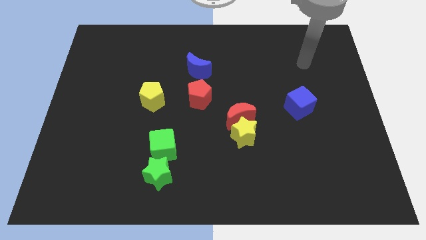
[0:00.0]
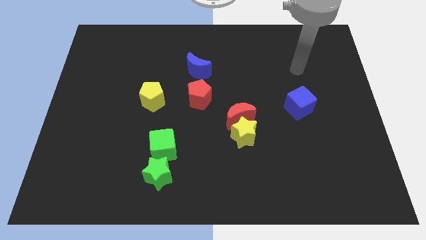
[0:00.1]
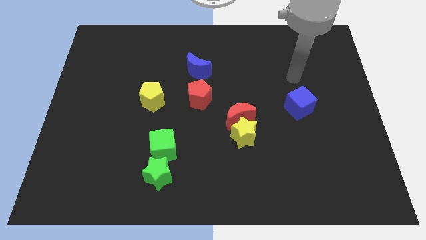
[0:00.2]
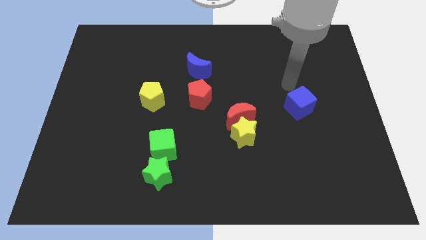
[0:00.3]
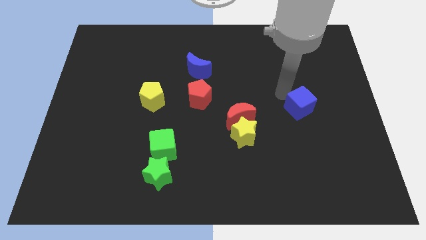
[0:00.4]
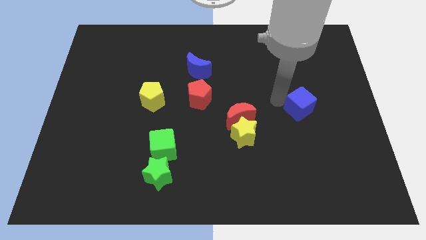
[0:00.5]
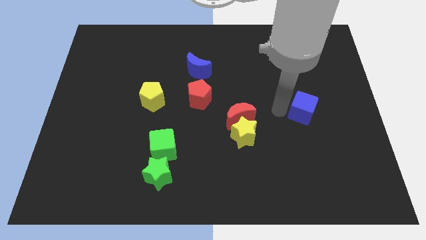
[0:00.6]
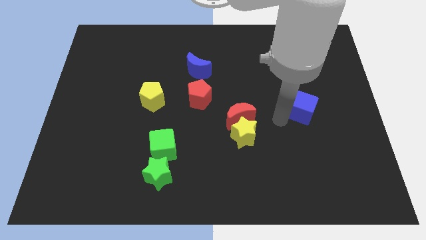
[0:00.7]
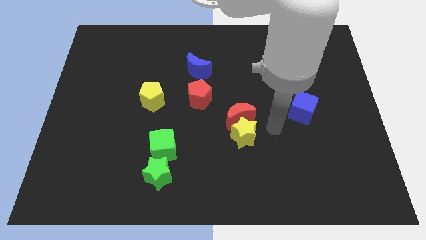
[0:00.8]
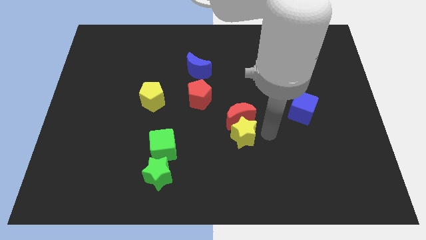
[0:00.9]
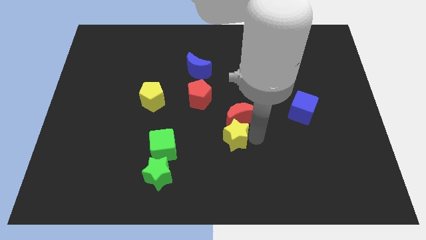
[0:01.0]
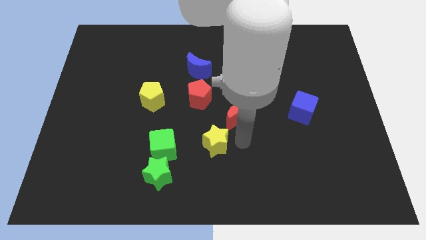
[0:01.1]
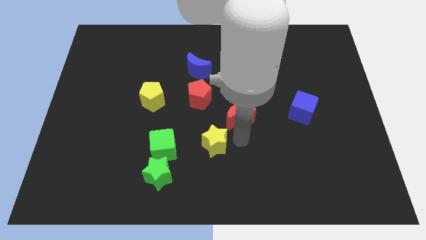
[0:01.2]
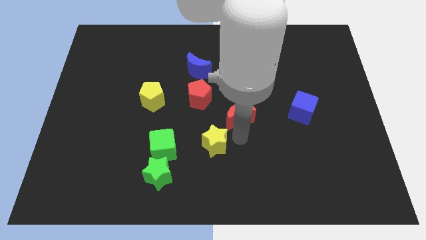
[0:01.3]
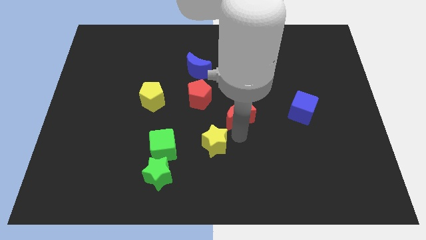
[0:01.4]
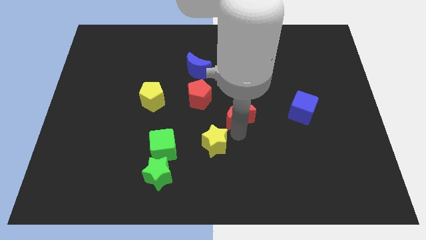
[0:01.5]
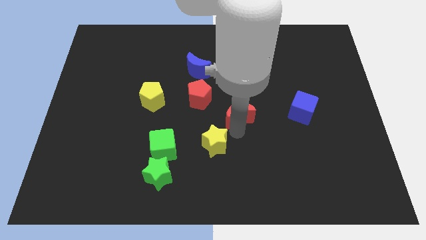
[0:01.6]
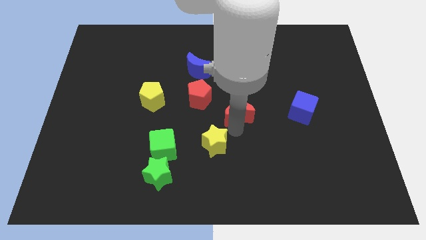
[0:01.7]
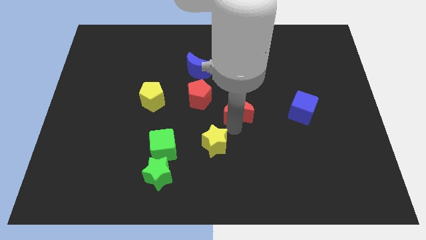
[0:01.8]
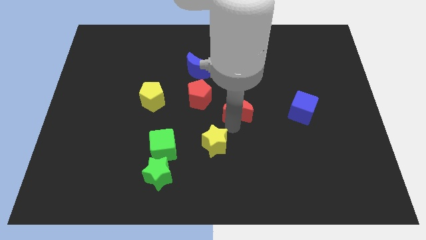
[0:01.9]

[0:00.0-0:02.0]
move the red moon away from the yellow star

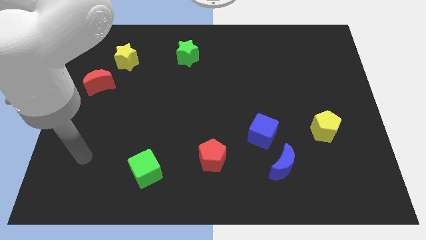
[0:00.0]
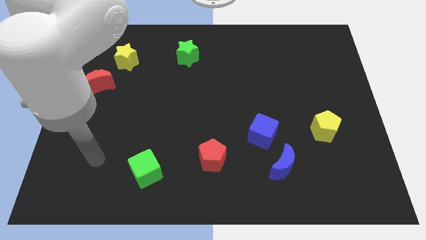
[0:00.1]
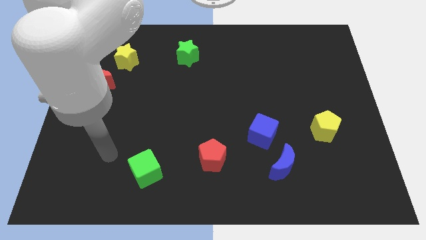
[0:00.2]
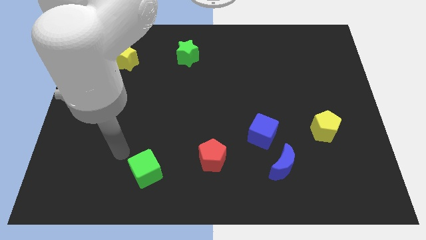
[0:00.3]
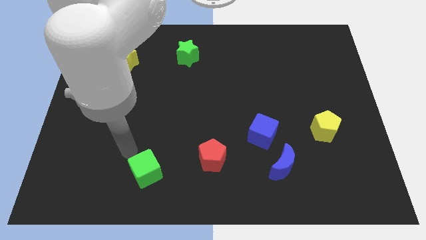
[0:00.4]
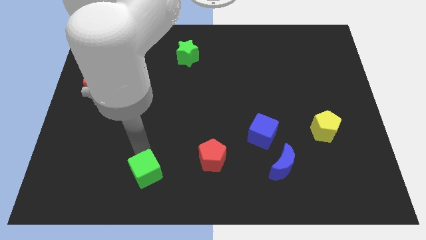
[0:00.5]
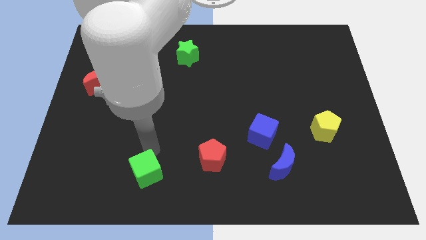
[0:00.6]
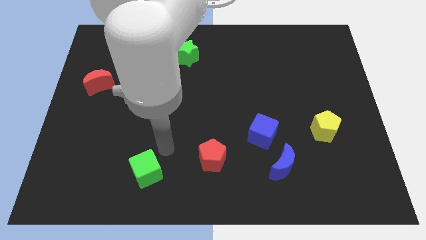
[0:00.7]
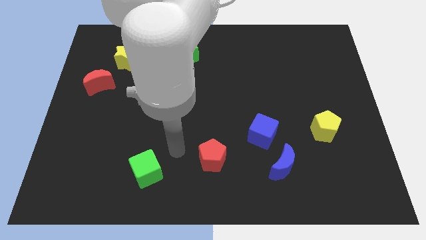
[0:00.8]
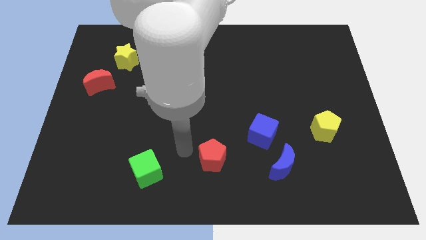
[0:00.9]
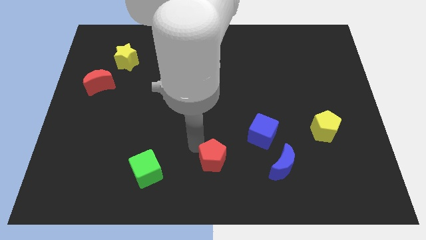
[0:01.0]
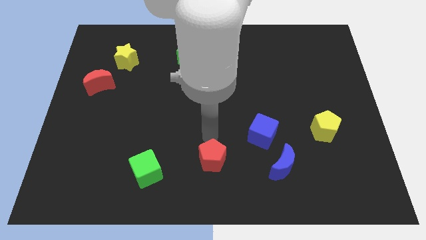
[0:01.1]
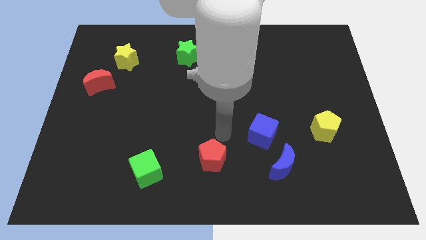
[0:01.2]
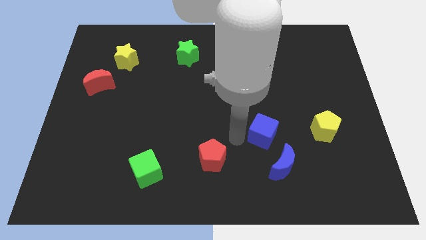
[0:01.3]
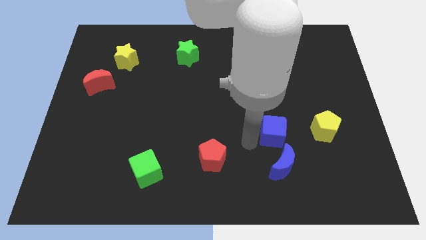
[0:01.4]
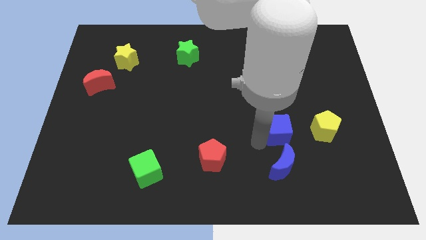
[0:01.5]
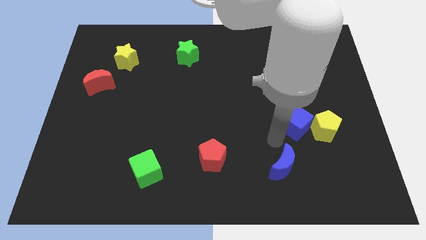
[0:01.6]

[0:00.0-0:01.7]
pull the blue moon apart from the blue cube

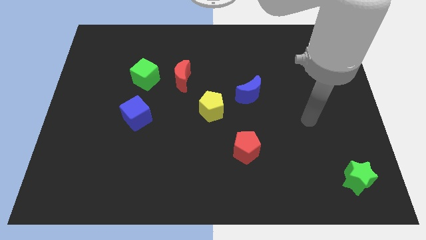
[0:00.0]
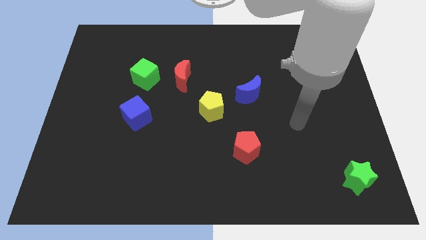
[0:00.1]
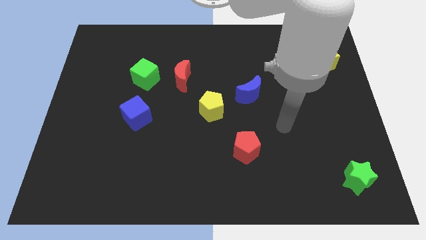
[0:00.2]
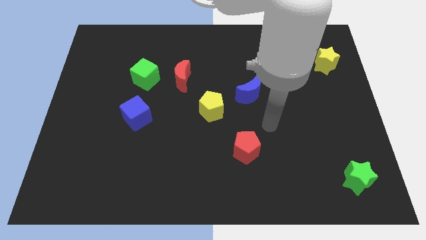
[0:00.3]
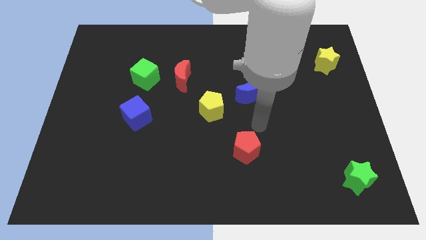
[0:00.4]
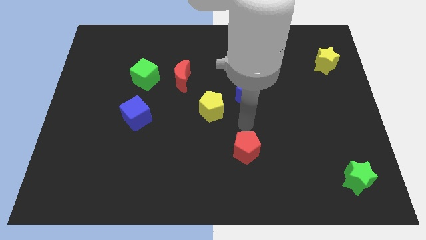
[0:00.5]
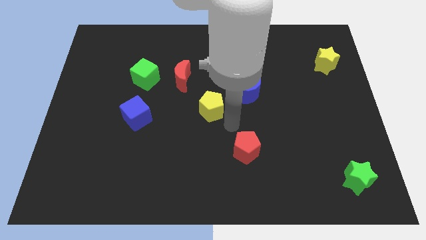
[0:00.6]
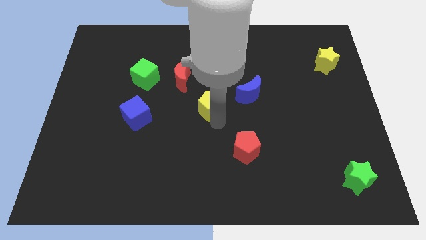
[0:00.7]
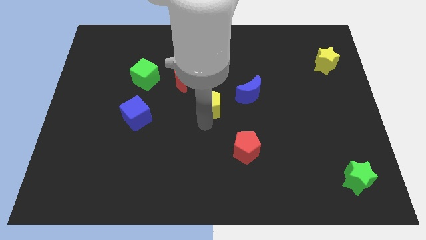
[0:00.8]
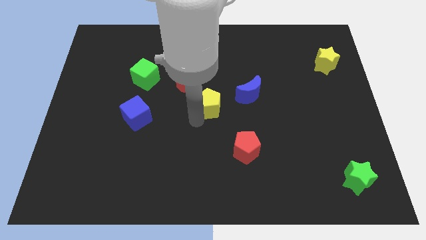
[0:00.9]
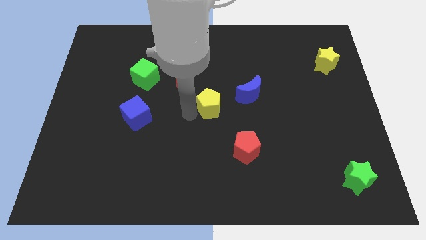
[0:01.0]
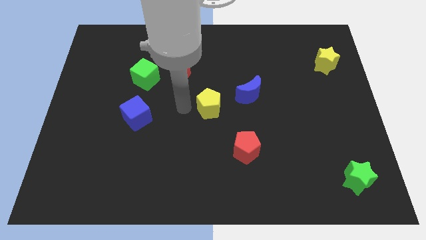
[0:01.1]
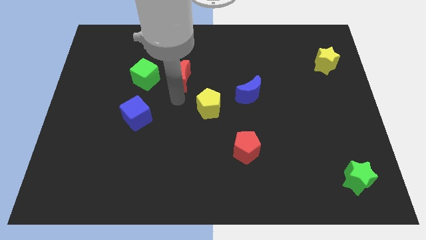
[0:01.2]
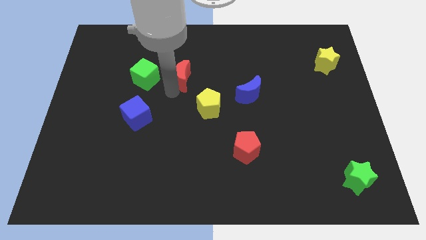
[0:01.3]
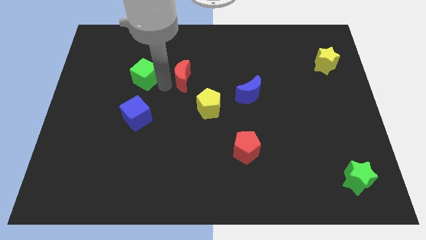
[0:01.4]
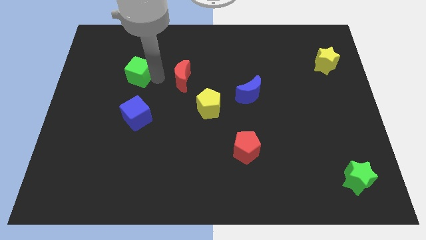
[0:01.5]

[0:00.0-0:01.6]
separate the red moon from the green cube

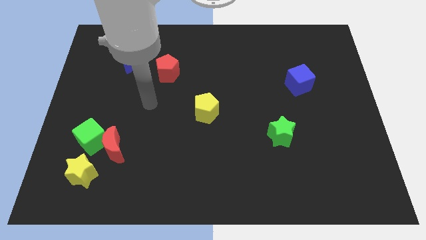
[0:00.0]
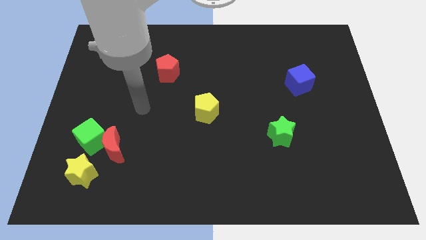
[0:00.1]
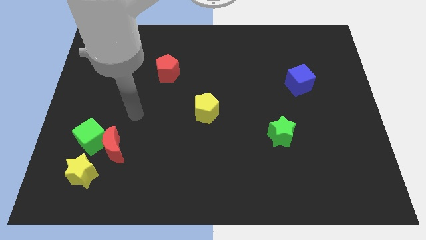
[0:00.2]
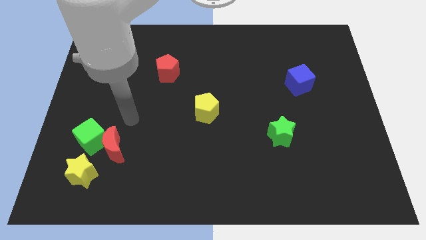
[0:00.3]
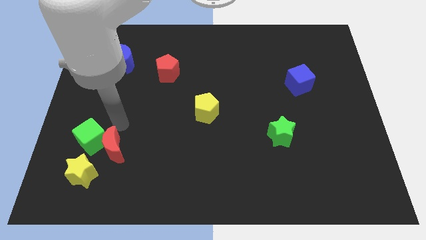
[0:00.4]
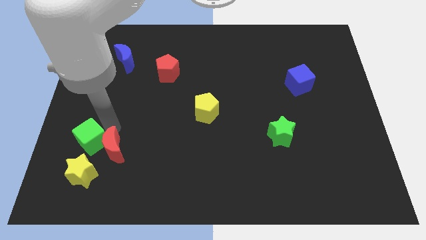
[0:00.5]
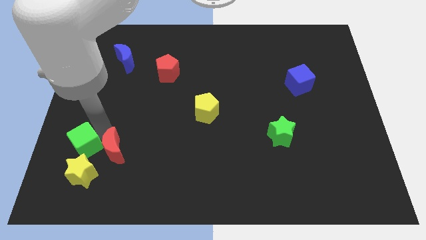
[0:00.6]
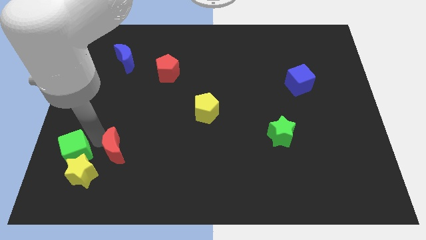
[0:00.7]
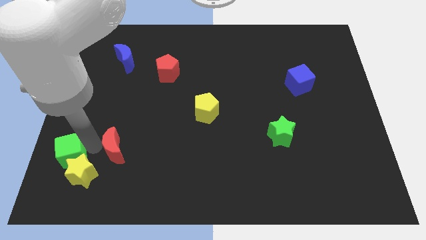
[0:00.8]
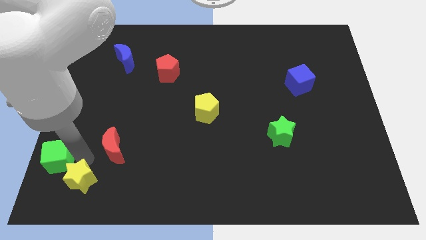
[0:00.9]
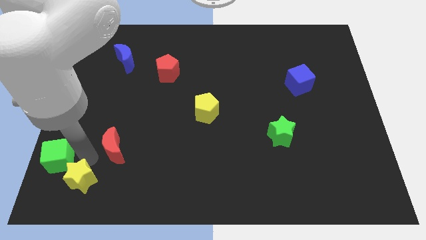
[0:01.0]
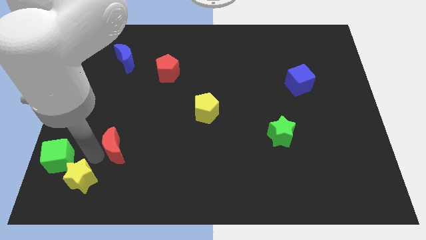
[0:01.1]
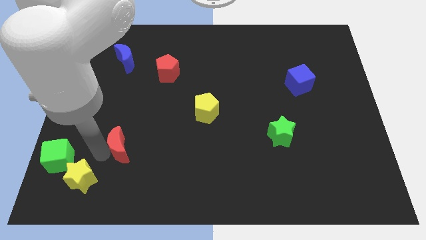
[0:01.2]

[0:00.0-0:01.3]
separate the red moon from the green cube and yellow star

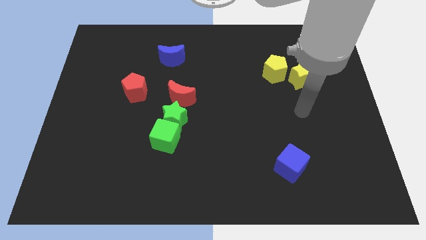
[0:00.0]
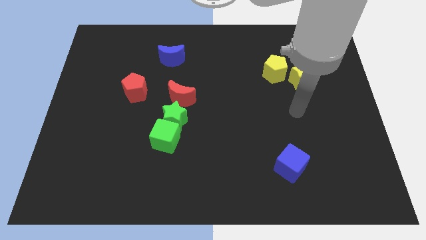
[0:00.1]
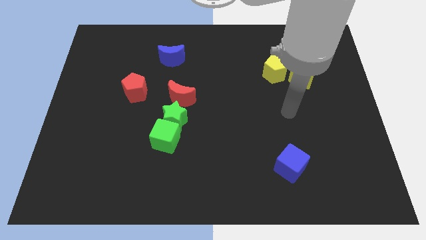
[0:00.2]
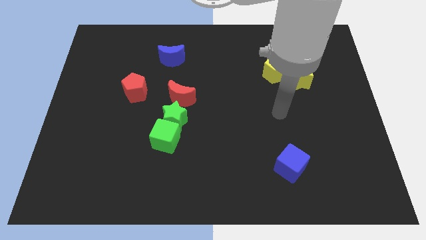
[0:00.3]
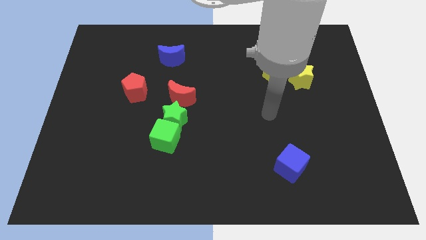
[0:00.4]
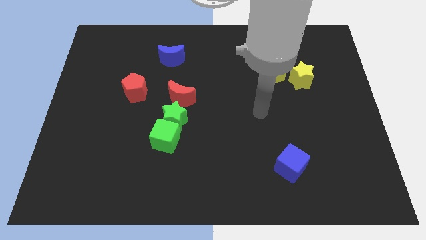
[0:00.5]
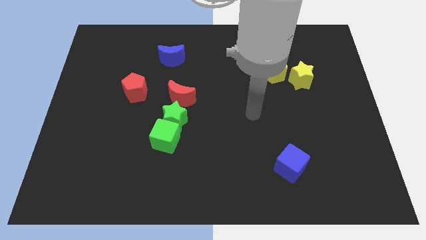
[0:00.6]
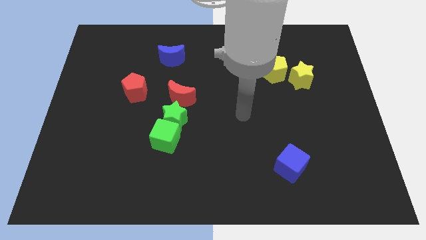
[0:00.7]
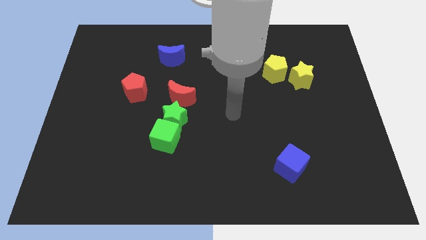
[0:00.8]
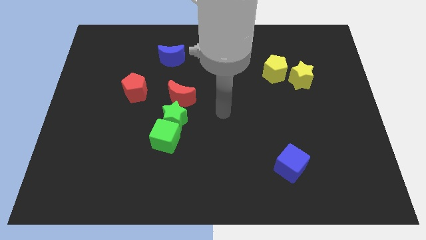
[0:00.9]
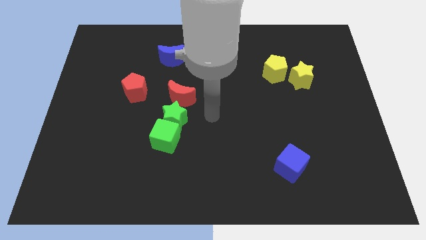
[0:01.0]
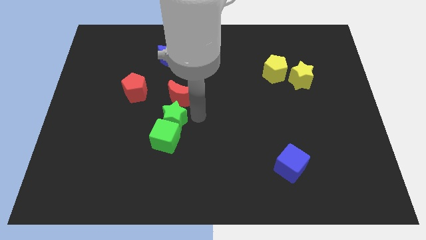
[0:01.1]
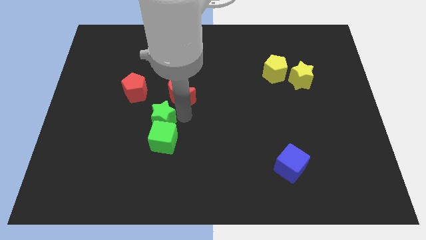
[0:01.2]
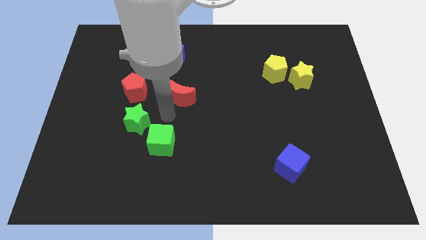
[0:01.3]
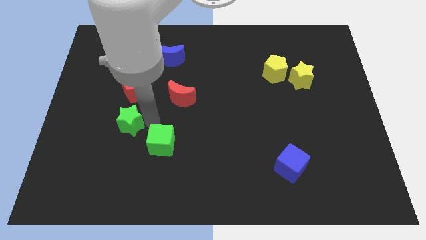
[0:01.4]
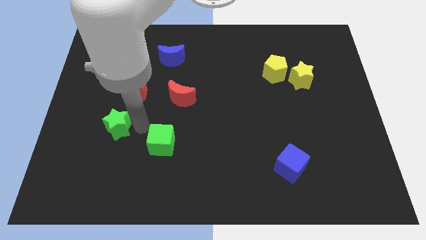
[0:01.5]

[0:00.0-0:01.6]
pull the green cube apart from the green star

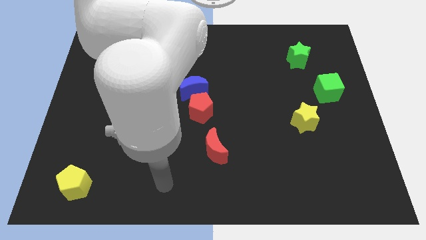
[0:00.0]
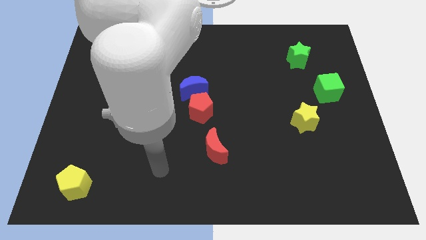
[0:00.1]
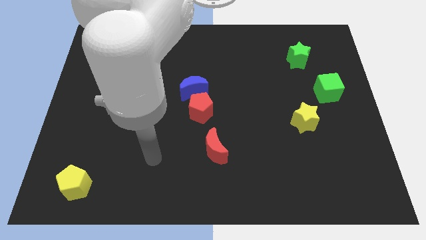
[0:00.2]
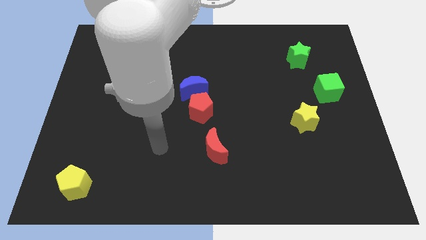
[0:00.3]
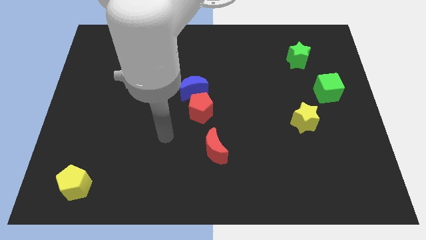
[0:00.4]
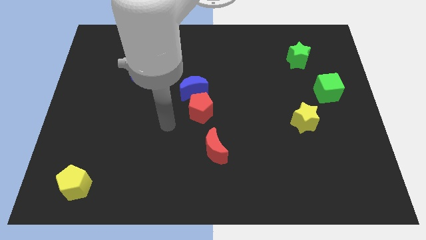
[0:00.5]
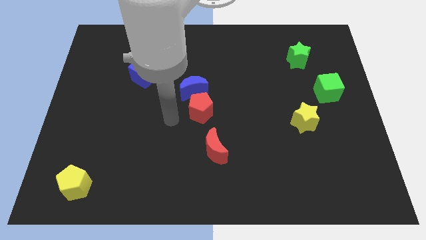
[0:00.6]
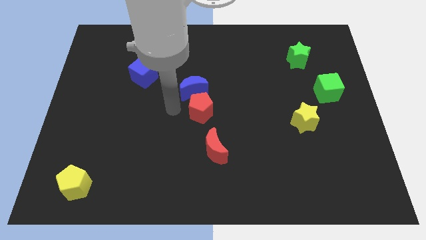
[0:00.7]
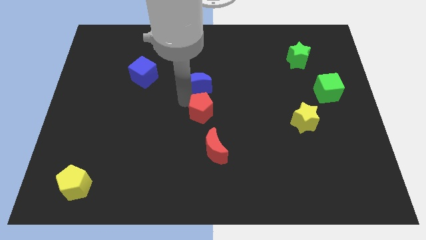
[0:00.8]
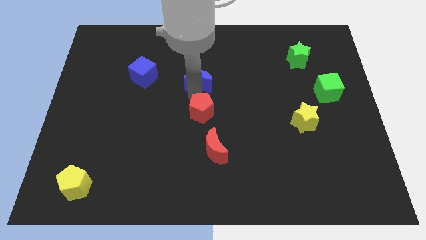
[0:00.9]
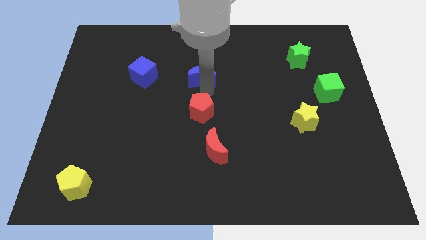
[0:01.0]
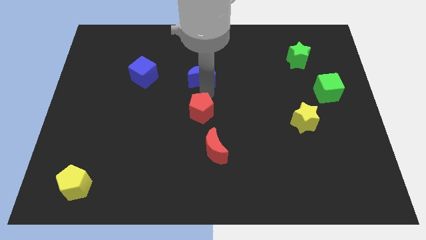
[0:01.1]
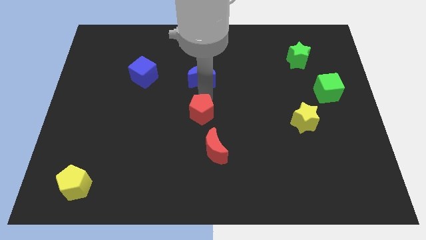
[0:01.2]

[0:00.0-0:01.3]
separate the red pentagon from the blue moon
